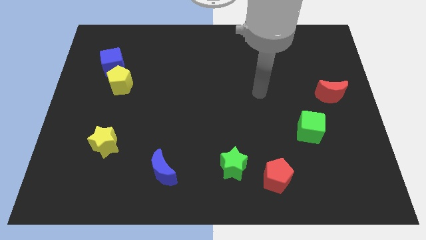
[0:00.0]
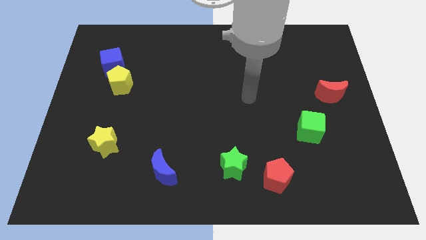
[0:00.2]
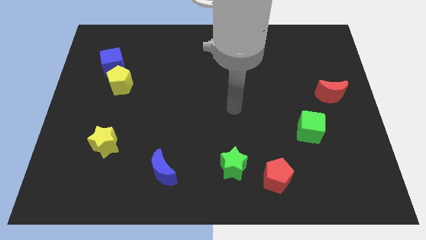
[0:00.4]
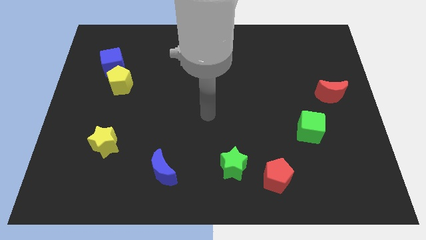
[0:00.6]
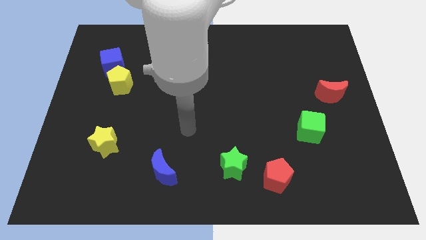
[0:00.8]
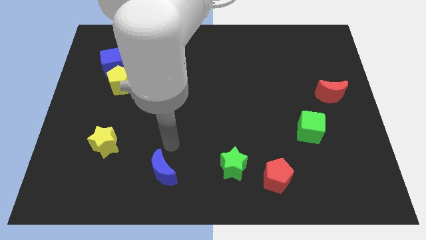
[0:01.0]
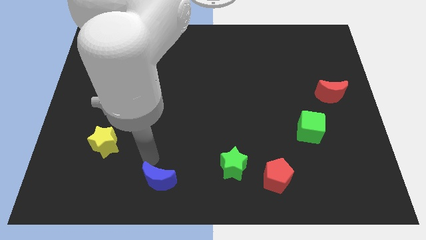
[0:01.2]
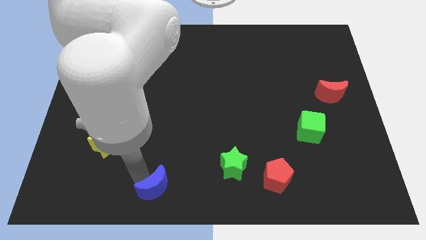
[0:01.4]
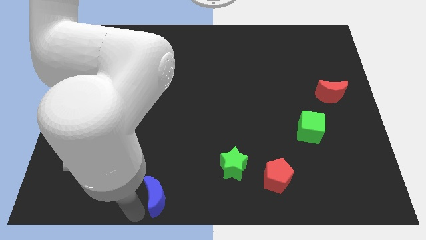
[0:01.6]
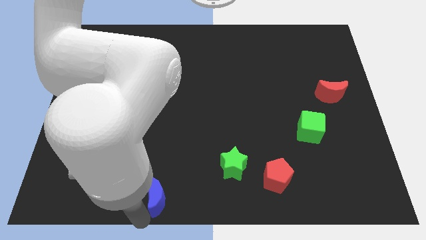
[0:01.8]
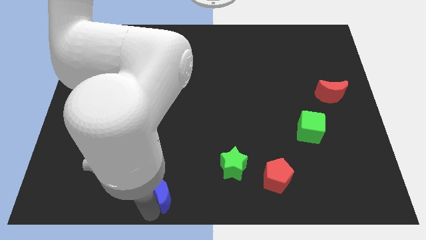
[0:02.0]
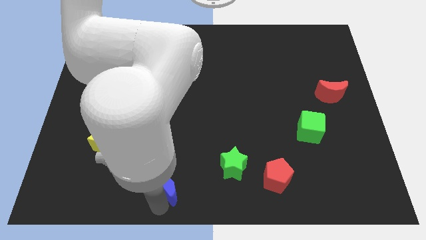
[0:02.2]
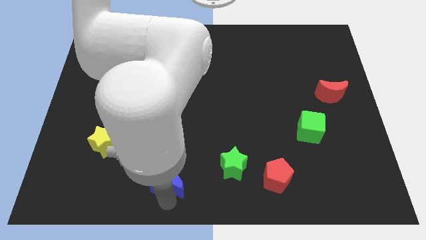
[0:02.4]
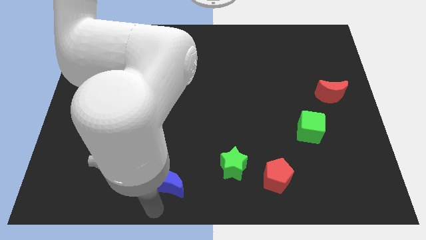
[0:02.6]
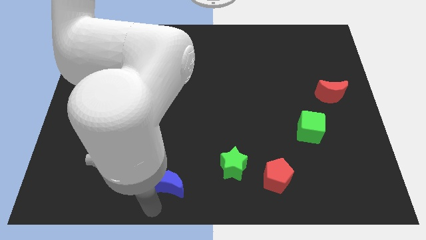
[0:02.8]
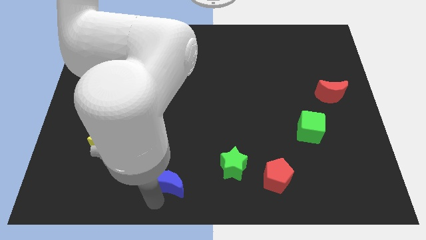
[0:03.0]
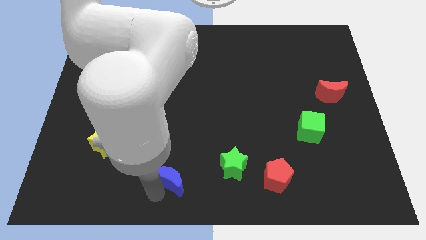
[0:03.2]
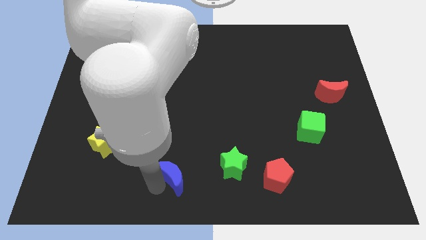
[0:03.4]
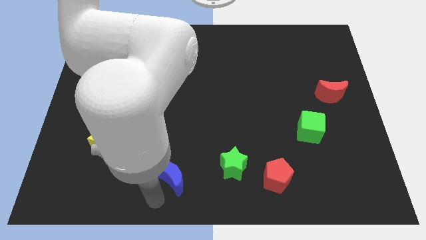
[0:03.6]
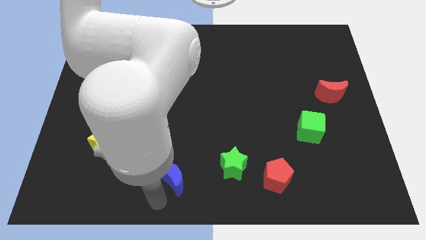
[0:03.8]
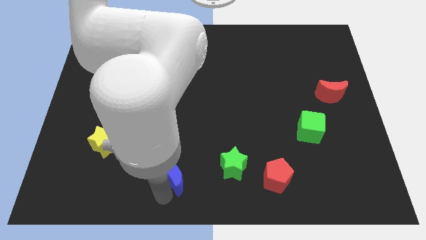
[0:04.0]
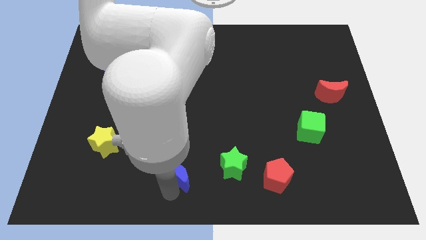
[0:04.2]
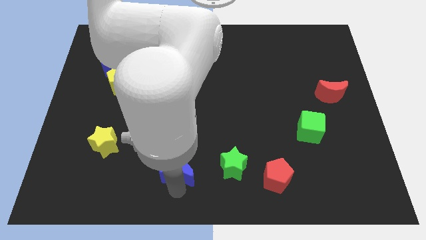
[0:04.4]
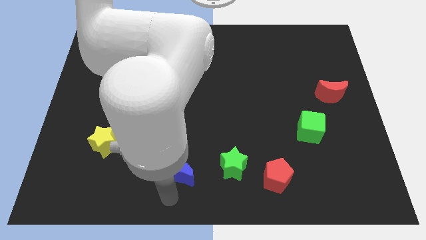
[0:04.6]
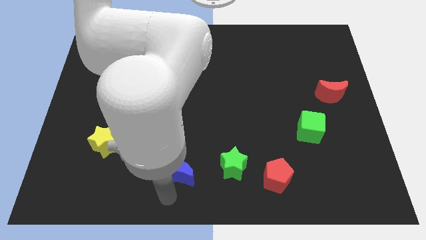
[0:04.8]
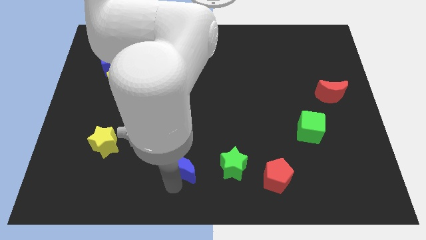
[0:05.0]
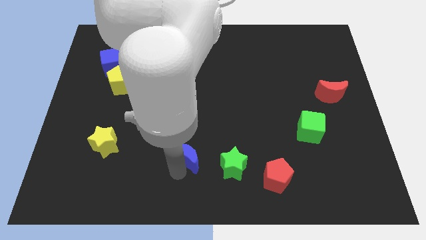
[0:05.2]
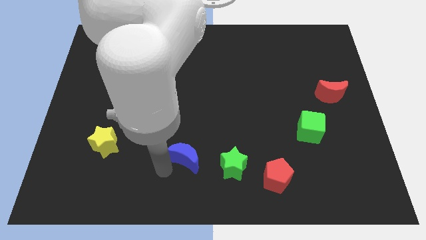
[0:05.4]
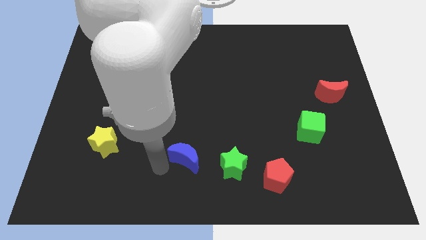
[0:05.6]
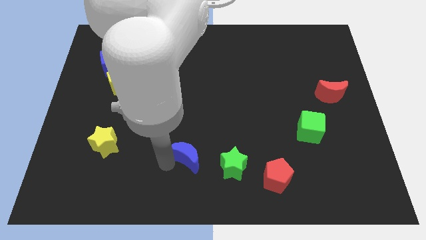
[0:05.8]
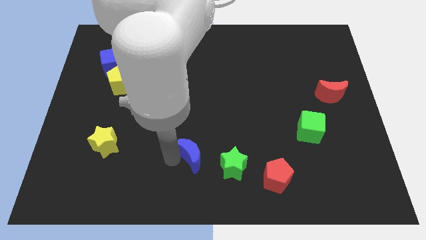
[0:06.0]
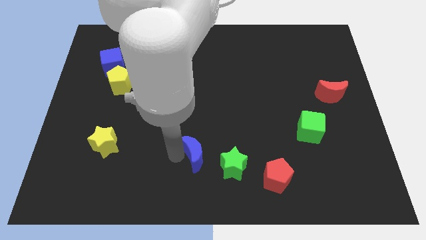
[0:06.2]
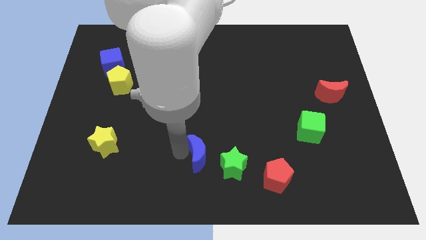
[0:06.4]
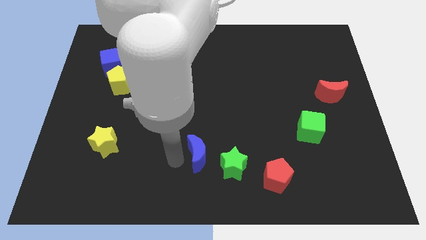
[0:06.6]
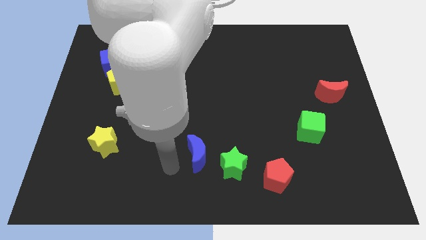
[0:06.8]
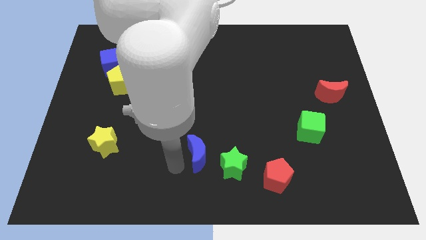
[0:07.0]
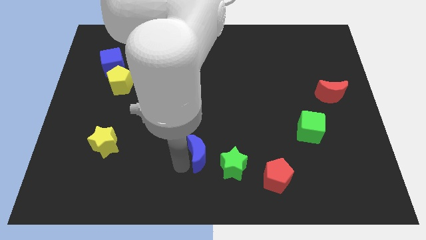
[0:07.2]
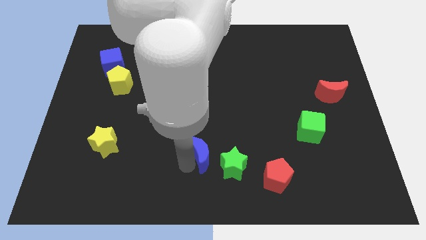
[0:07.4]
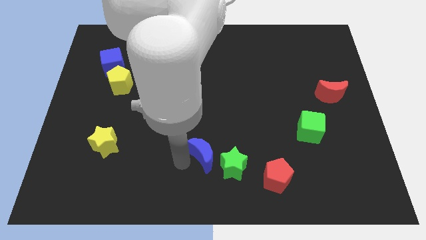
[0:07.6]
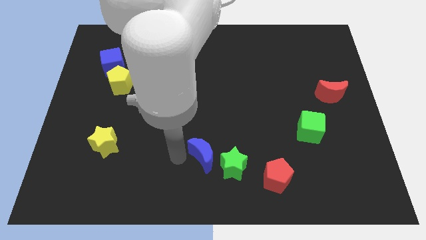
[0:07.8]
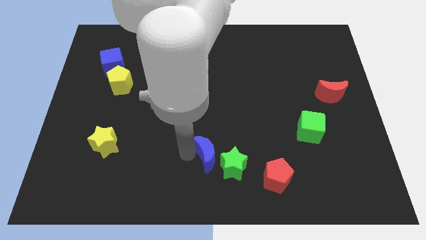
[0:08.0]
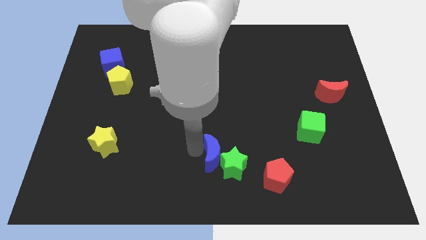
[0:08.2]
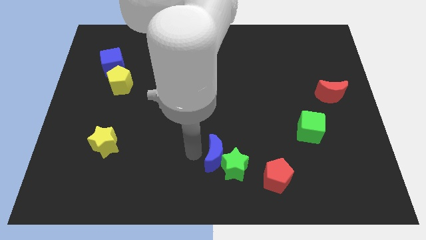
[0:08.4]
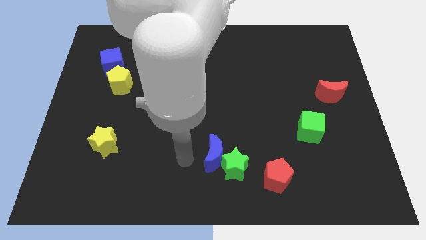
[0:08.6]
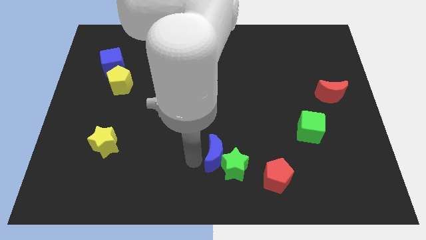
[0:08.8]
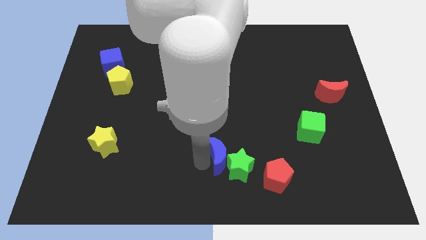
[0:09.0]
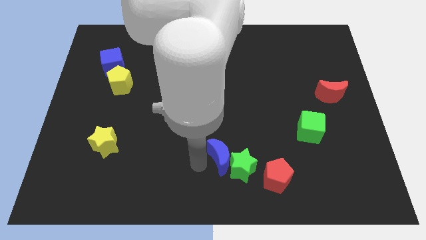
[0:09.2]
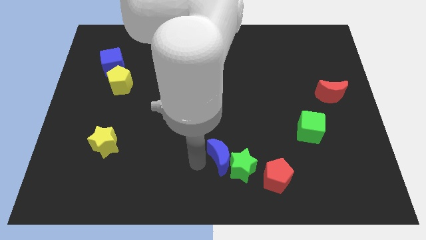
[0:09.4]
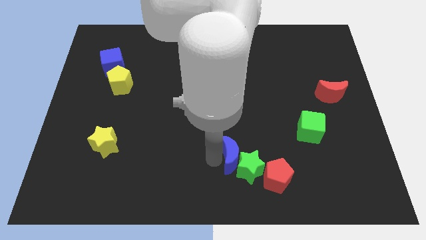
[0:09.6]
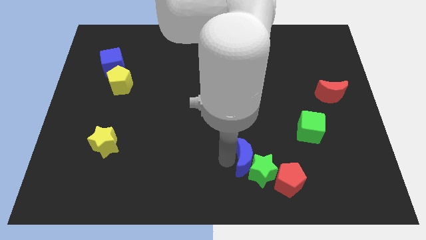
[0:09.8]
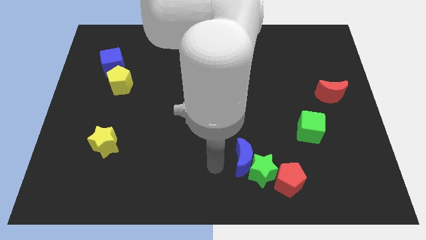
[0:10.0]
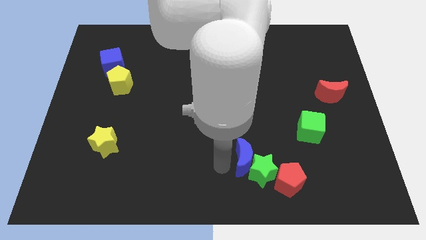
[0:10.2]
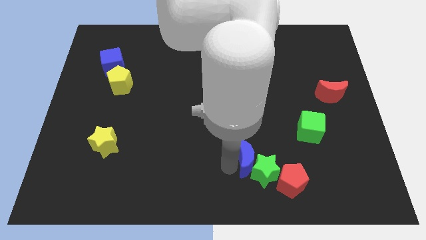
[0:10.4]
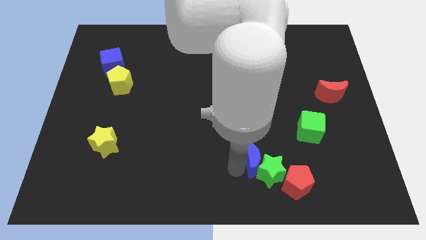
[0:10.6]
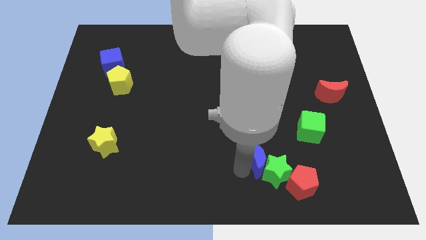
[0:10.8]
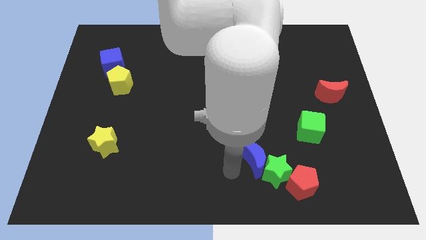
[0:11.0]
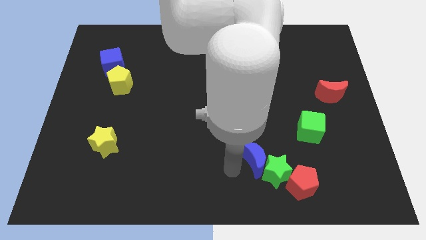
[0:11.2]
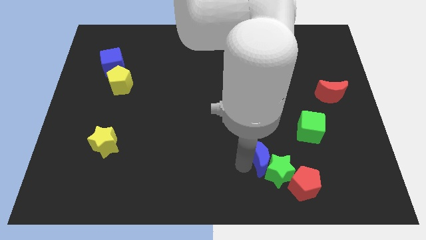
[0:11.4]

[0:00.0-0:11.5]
push the blue moon right

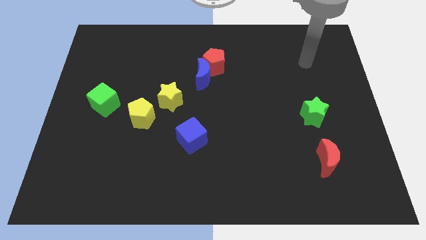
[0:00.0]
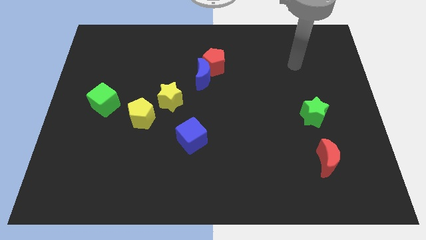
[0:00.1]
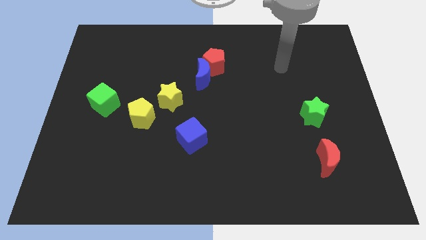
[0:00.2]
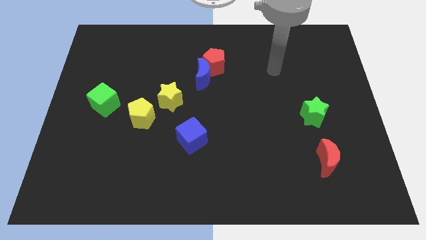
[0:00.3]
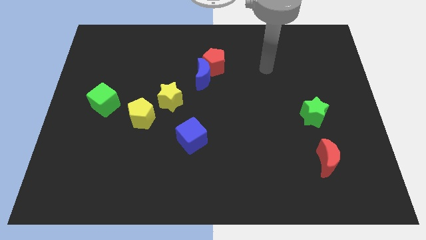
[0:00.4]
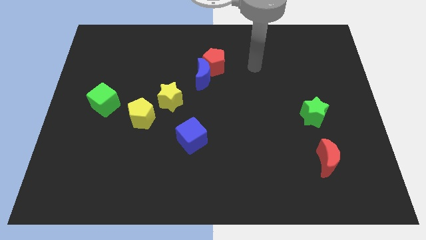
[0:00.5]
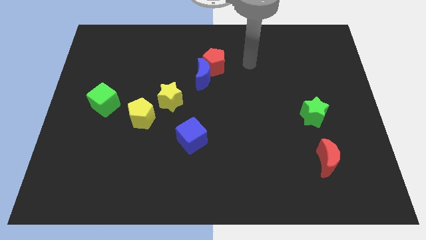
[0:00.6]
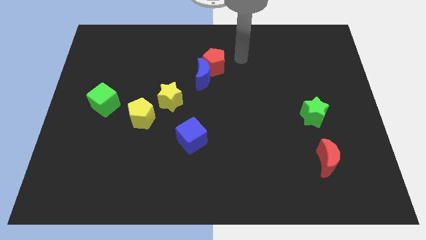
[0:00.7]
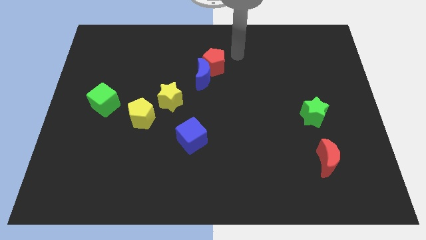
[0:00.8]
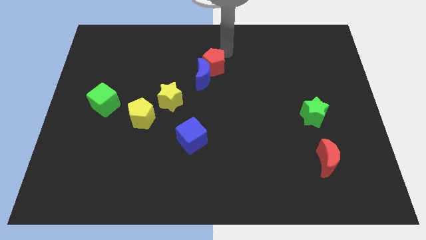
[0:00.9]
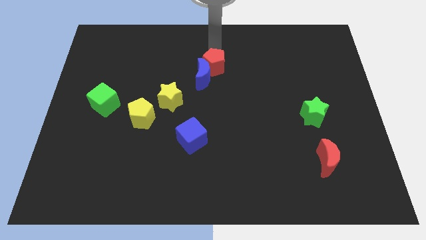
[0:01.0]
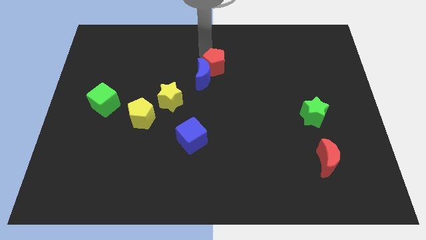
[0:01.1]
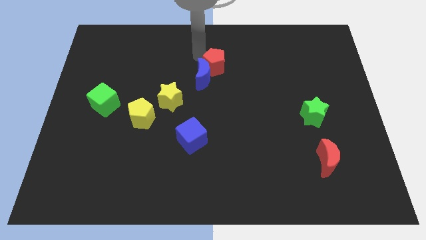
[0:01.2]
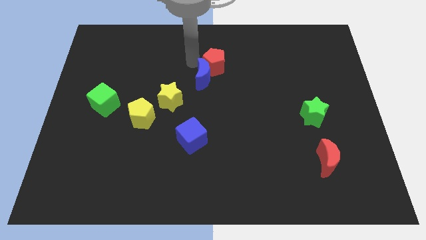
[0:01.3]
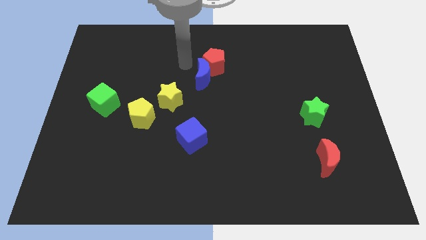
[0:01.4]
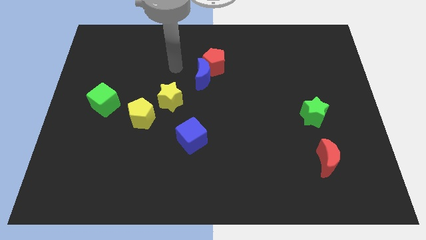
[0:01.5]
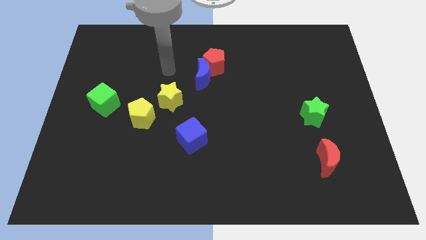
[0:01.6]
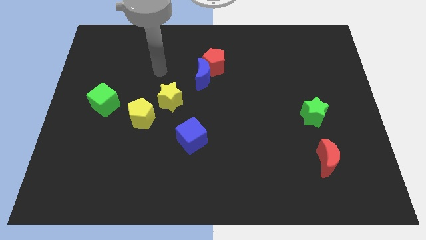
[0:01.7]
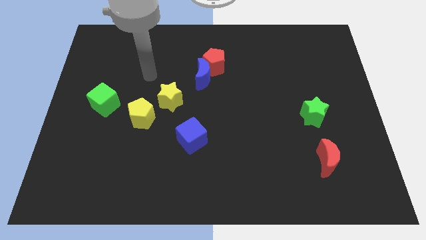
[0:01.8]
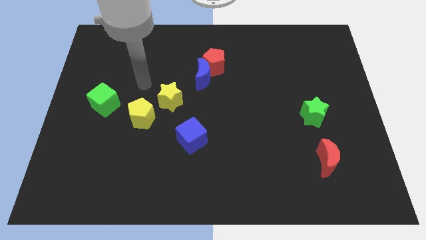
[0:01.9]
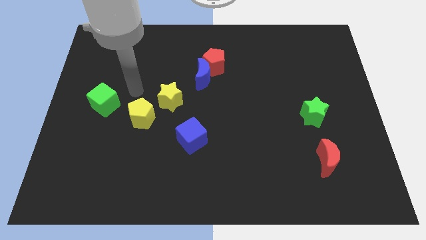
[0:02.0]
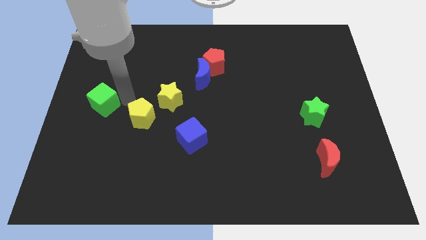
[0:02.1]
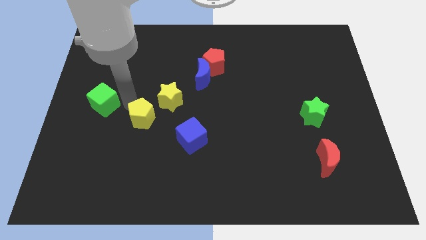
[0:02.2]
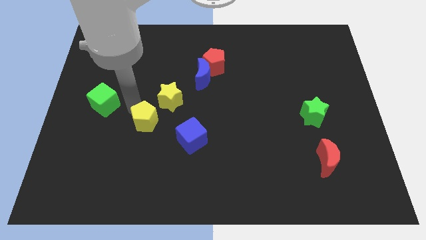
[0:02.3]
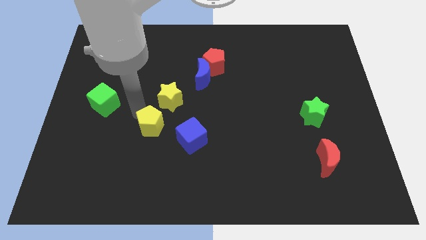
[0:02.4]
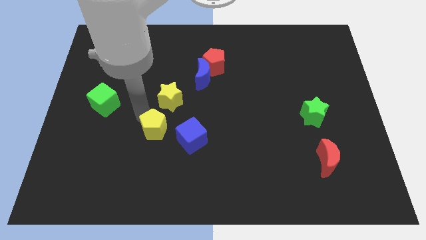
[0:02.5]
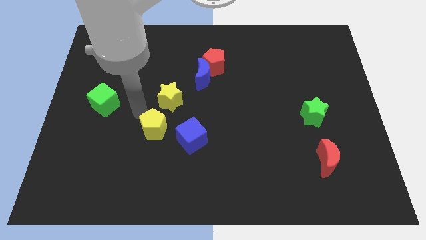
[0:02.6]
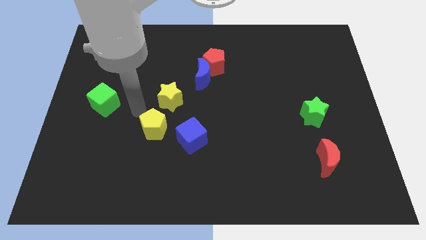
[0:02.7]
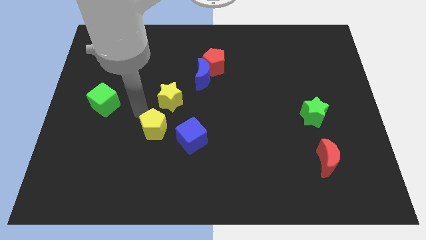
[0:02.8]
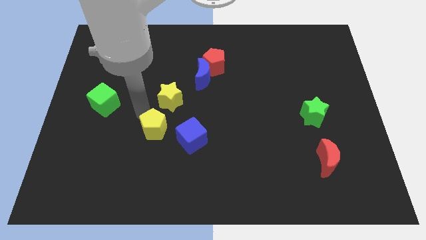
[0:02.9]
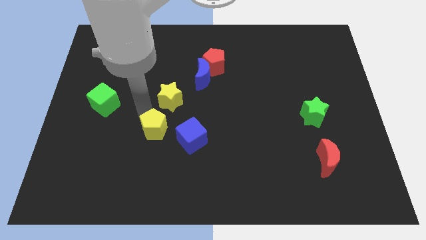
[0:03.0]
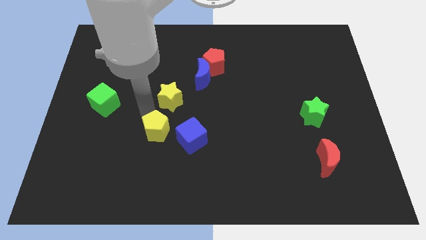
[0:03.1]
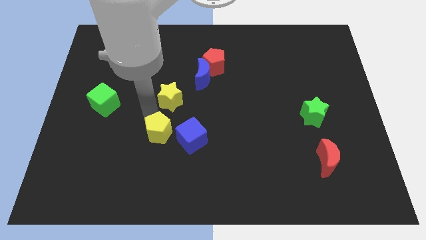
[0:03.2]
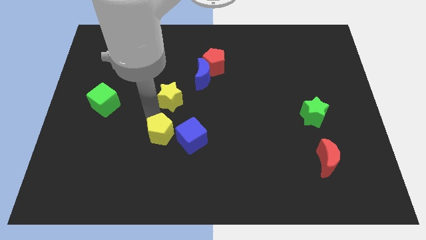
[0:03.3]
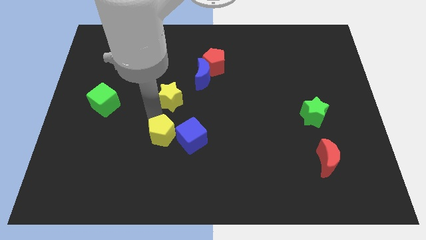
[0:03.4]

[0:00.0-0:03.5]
move the yellow pentagon a bit diagonally down and right
